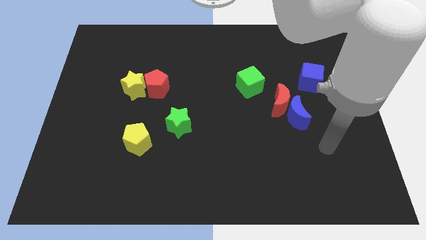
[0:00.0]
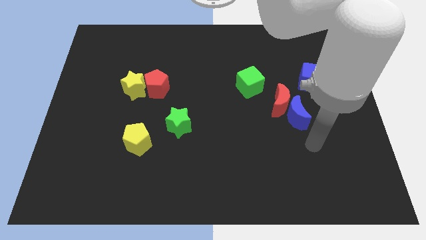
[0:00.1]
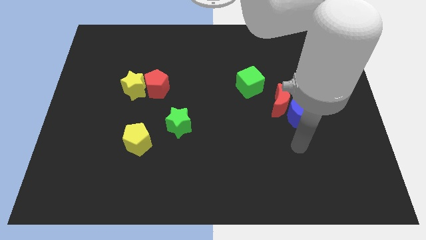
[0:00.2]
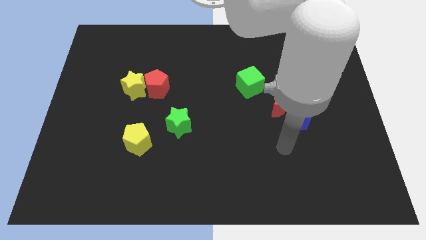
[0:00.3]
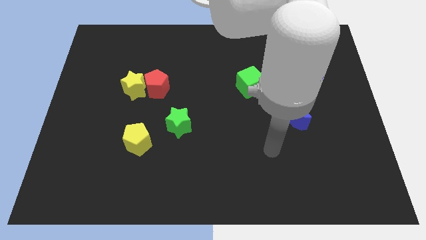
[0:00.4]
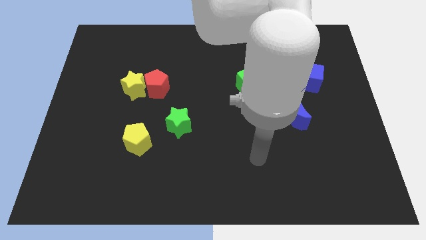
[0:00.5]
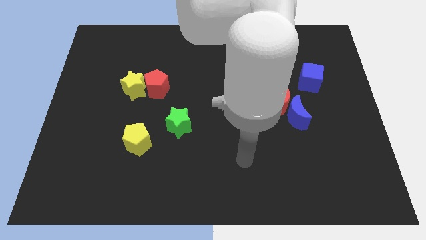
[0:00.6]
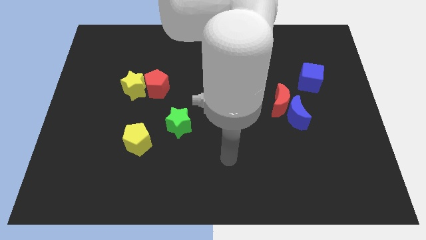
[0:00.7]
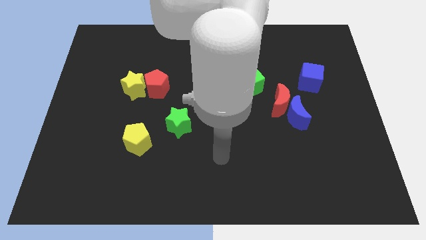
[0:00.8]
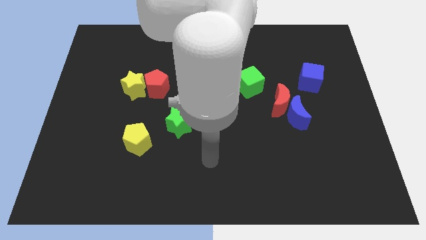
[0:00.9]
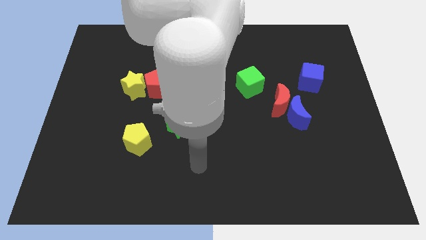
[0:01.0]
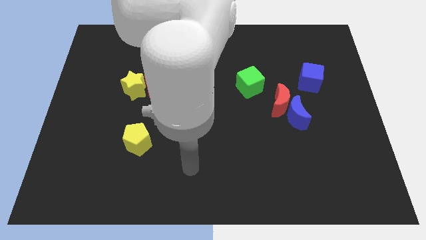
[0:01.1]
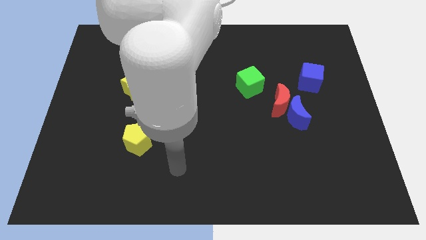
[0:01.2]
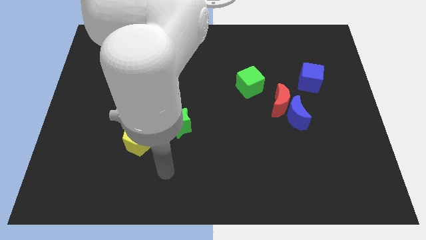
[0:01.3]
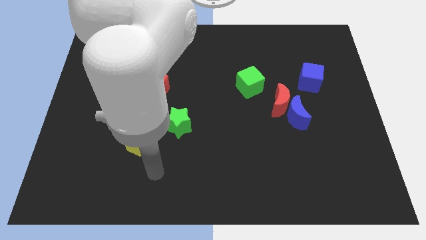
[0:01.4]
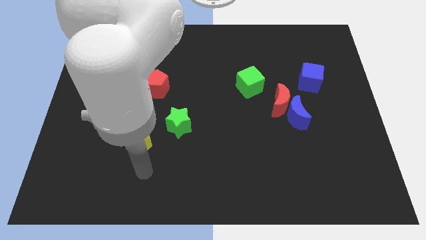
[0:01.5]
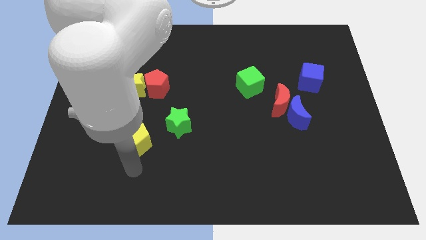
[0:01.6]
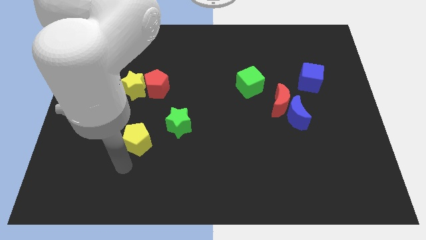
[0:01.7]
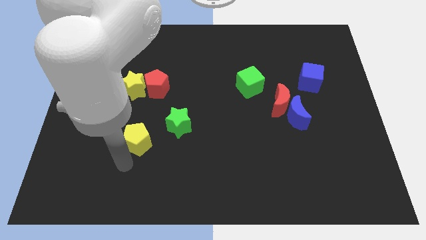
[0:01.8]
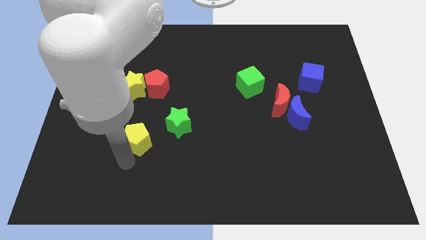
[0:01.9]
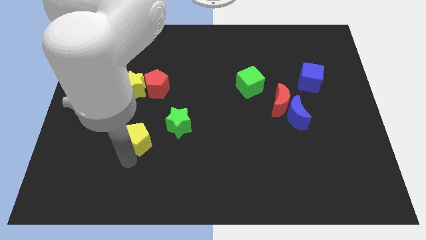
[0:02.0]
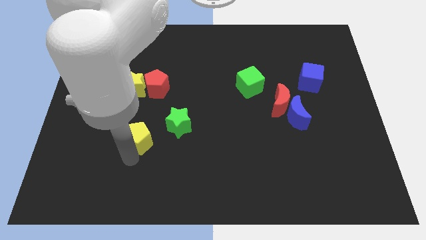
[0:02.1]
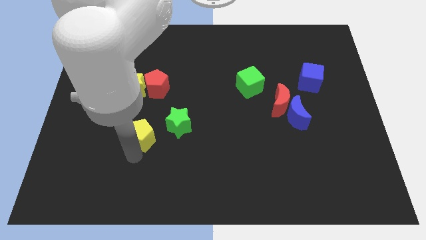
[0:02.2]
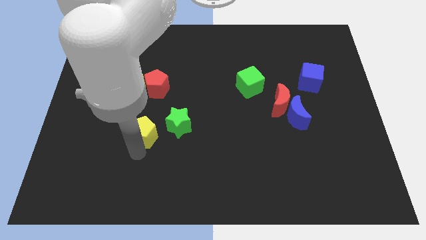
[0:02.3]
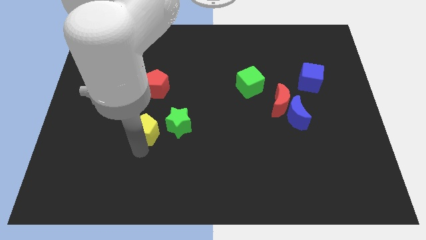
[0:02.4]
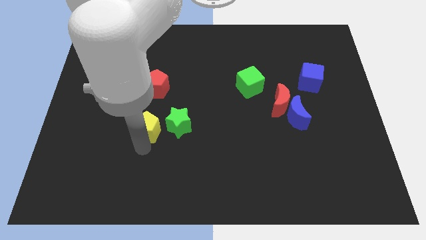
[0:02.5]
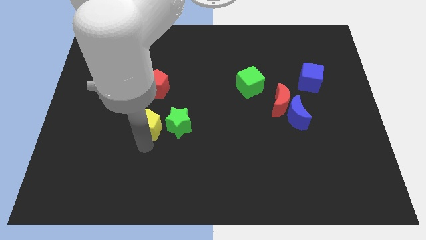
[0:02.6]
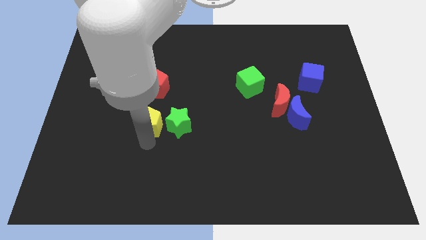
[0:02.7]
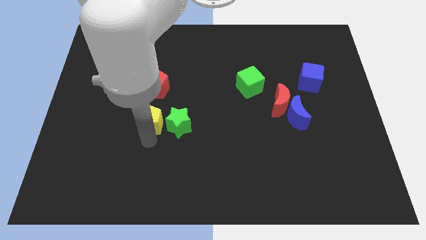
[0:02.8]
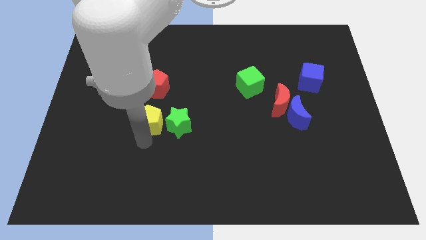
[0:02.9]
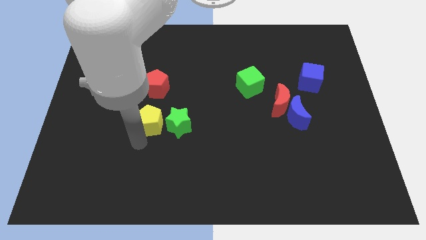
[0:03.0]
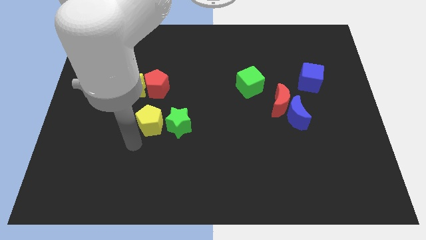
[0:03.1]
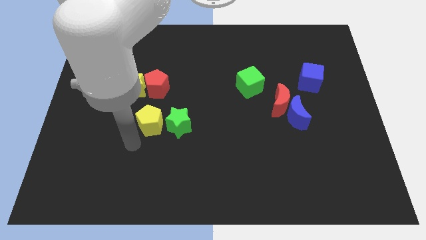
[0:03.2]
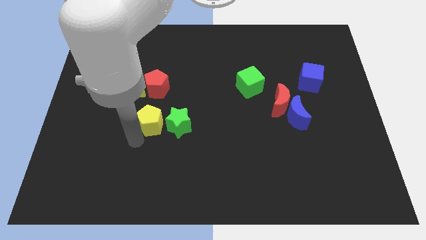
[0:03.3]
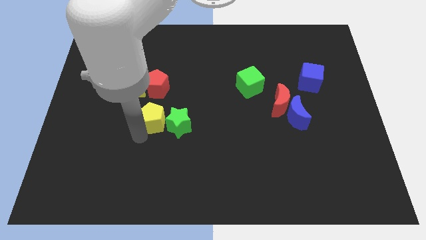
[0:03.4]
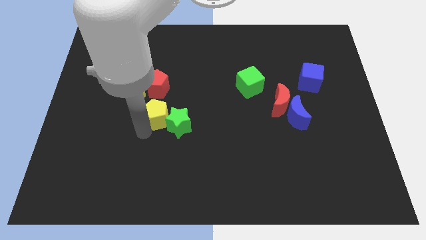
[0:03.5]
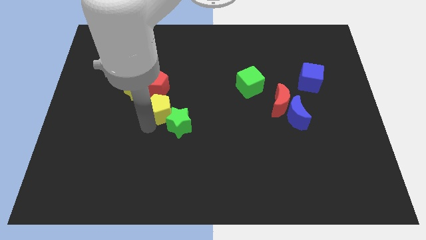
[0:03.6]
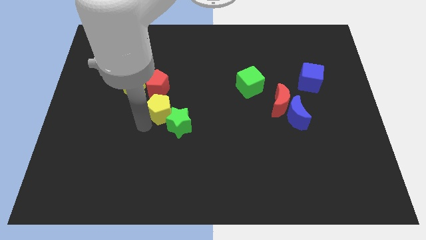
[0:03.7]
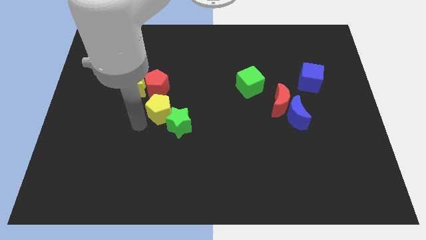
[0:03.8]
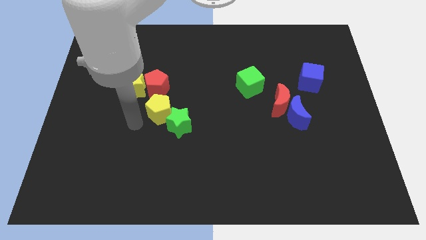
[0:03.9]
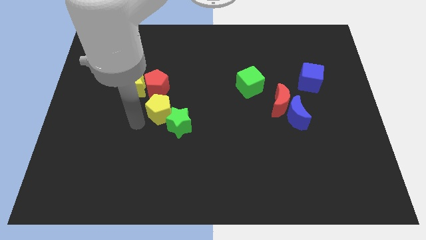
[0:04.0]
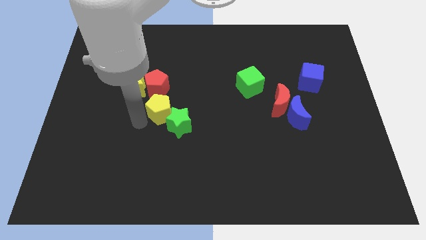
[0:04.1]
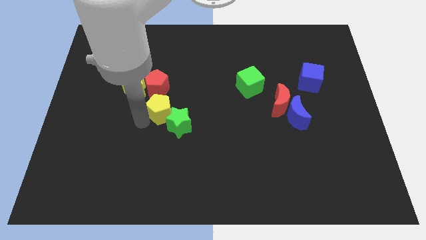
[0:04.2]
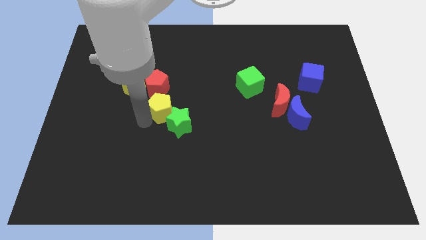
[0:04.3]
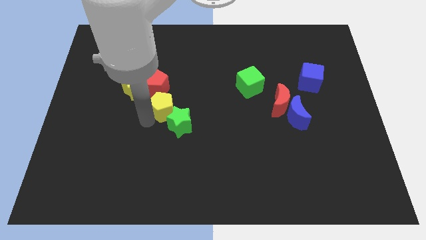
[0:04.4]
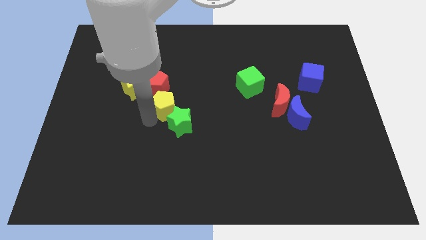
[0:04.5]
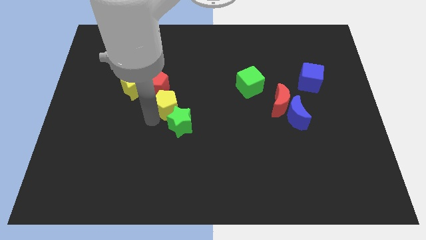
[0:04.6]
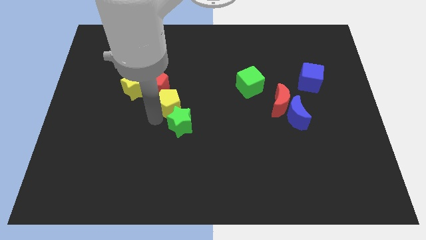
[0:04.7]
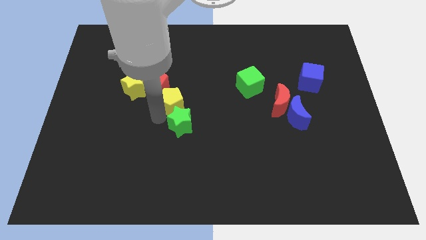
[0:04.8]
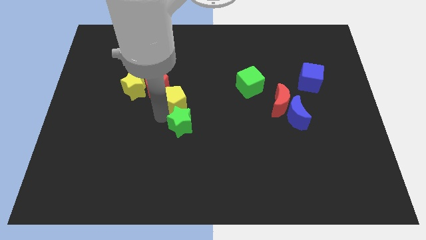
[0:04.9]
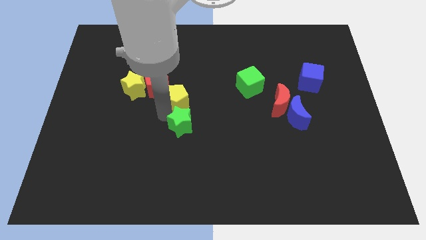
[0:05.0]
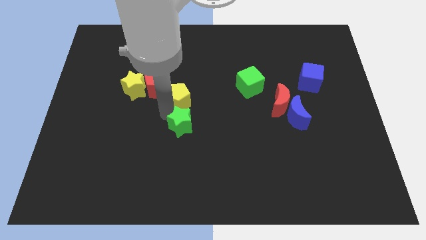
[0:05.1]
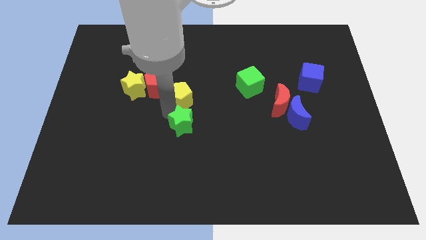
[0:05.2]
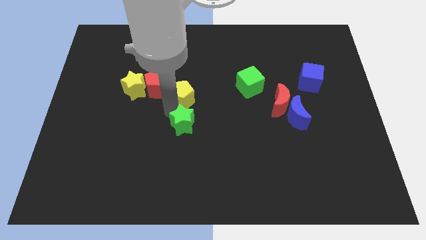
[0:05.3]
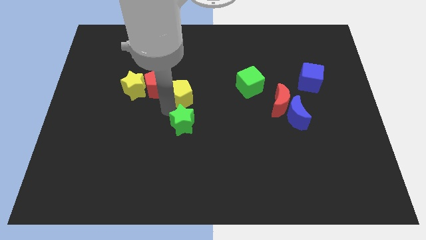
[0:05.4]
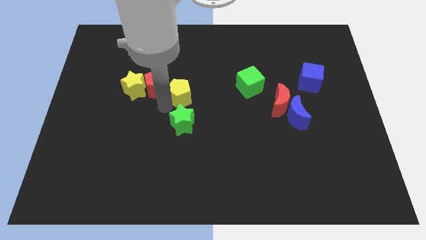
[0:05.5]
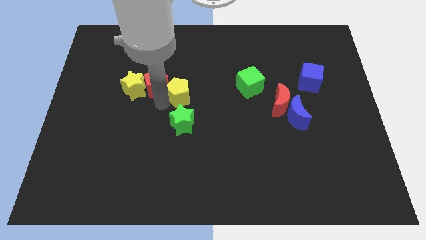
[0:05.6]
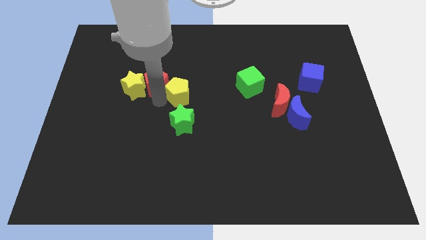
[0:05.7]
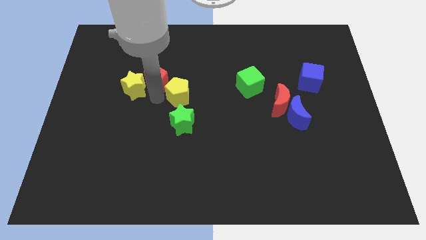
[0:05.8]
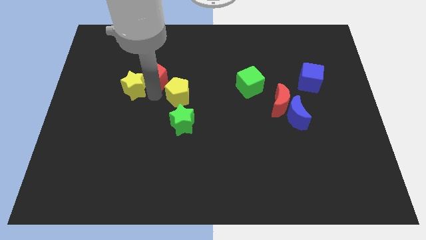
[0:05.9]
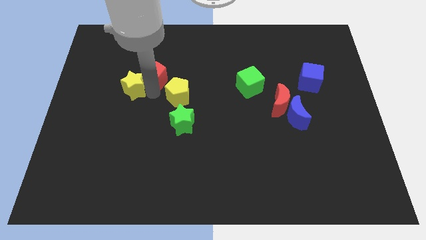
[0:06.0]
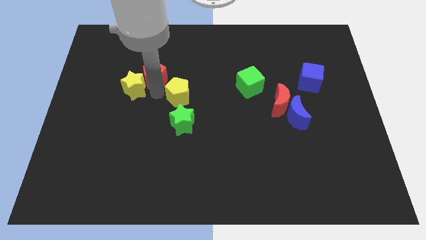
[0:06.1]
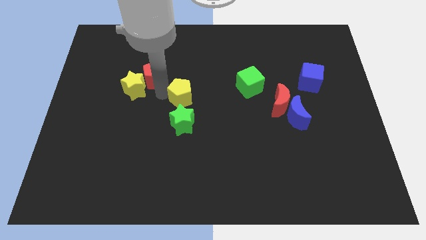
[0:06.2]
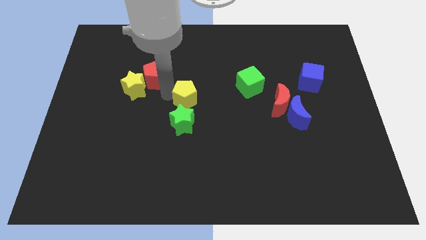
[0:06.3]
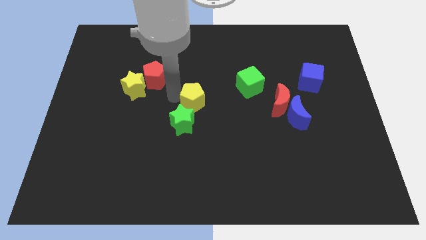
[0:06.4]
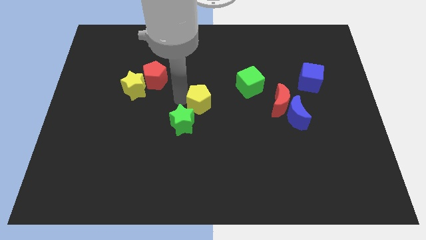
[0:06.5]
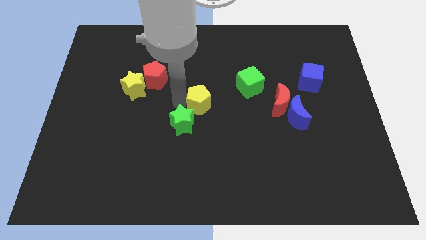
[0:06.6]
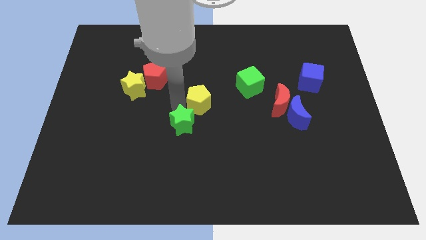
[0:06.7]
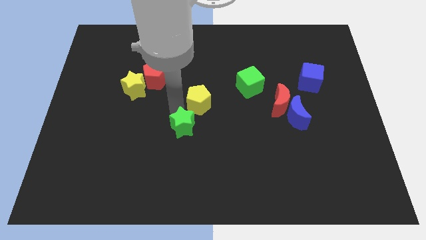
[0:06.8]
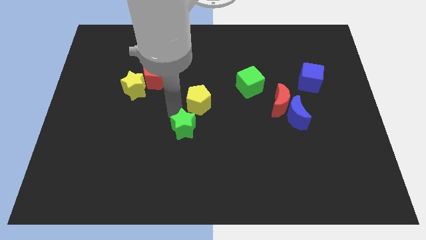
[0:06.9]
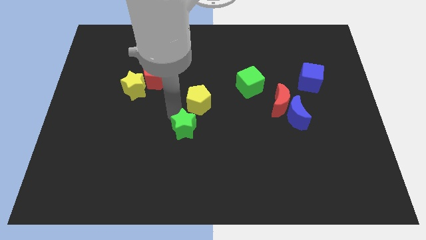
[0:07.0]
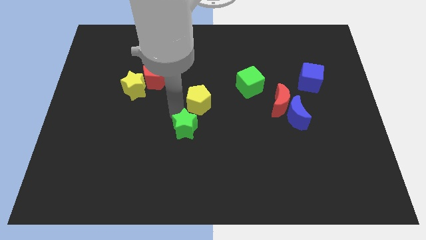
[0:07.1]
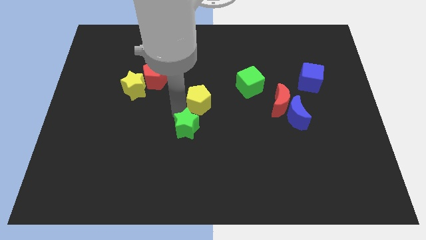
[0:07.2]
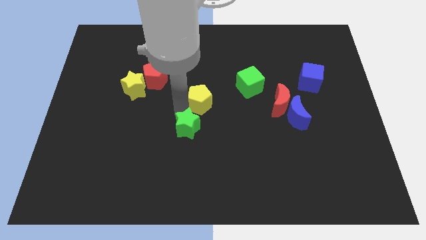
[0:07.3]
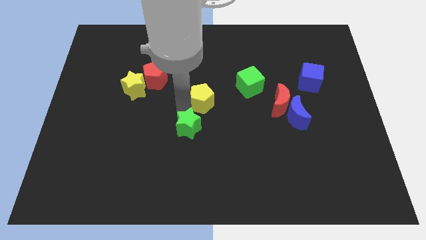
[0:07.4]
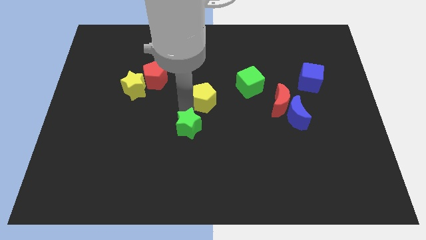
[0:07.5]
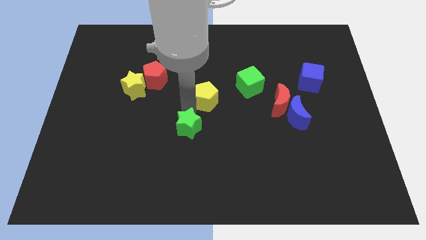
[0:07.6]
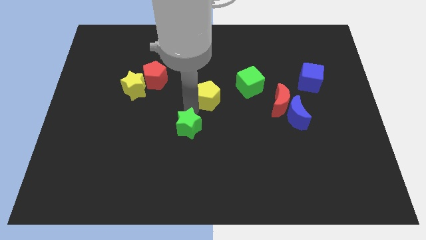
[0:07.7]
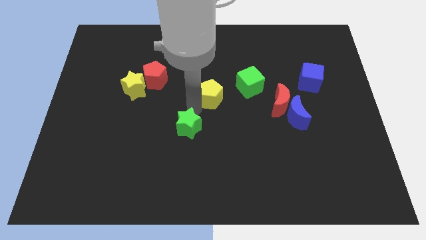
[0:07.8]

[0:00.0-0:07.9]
slide the yellow pentagon up and right
